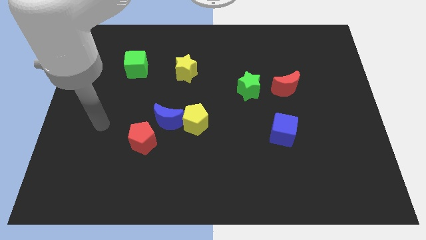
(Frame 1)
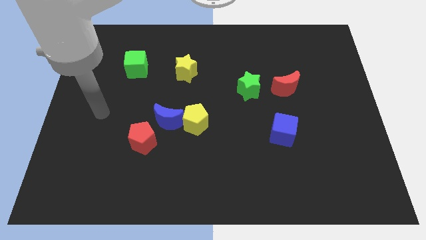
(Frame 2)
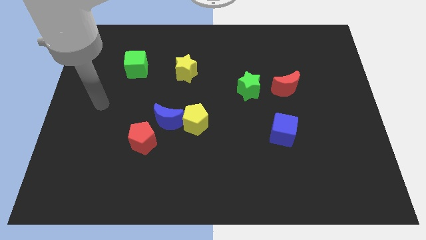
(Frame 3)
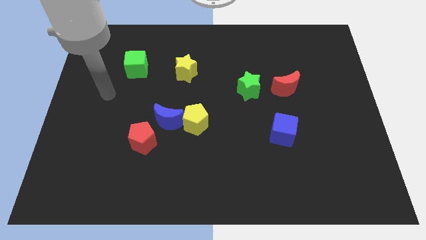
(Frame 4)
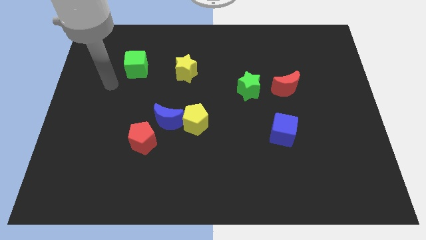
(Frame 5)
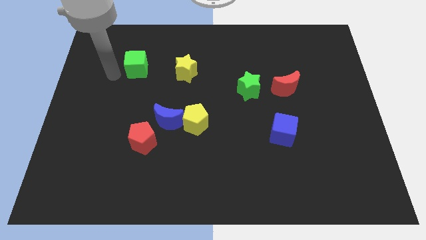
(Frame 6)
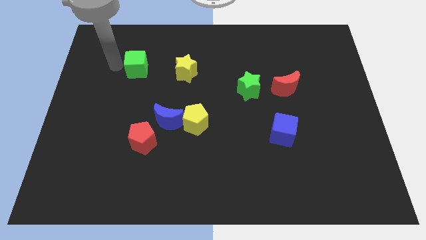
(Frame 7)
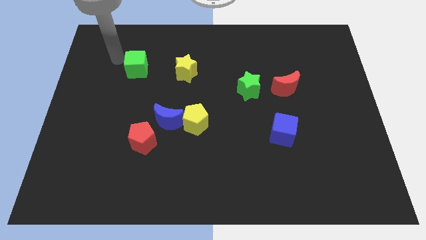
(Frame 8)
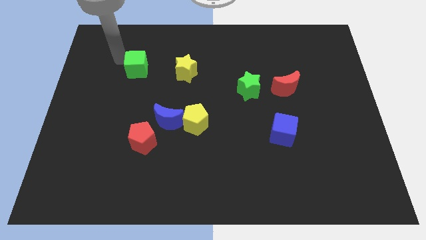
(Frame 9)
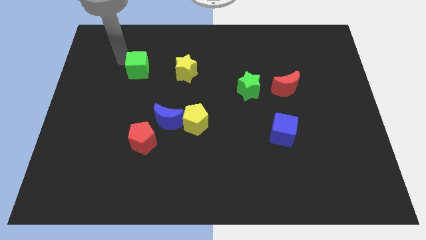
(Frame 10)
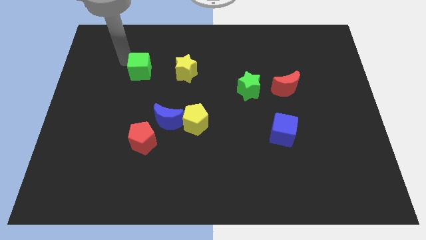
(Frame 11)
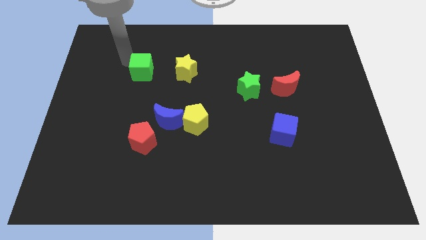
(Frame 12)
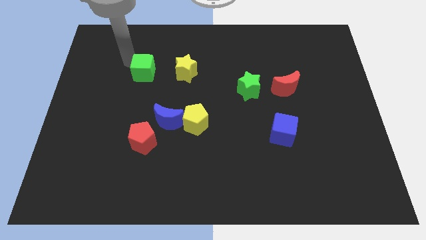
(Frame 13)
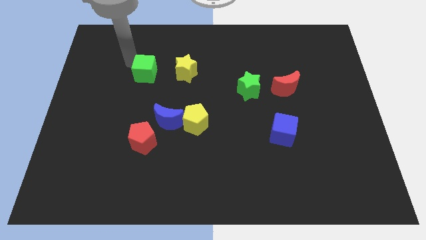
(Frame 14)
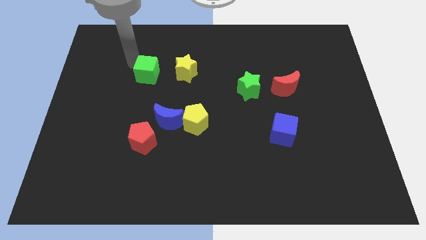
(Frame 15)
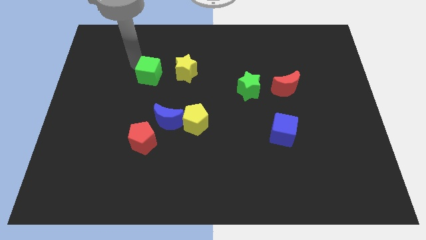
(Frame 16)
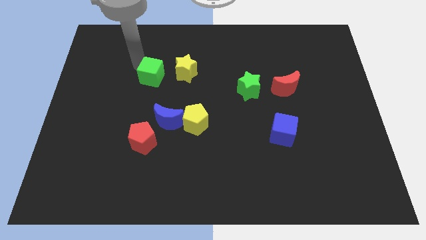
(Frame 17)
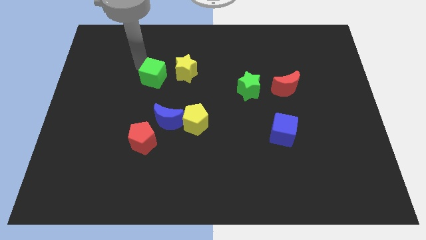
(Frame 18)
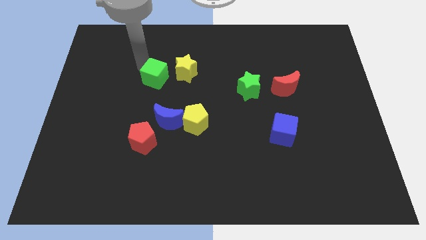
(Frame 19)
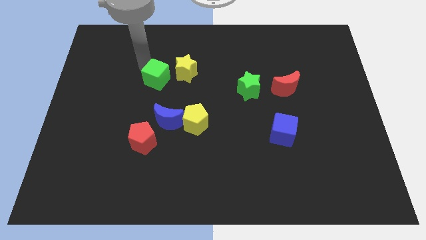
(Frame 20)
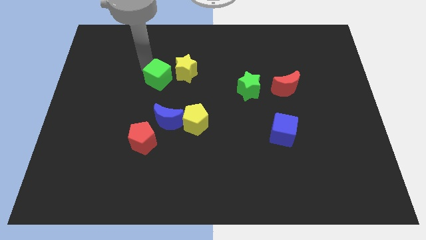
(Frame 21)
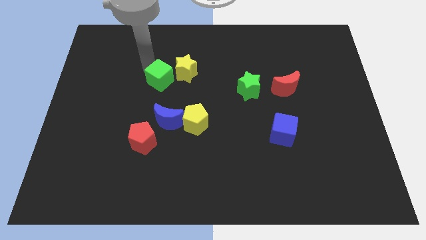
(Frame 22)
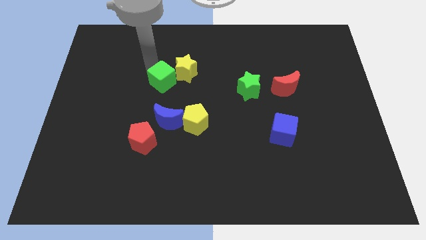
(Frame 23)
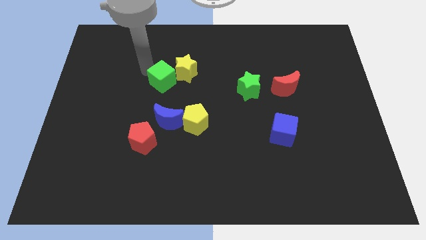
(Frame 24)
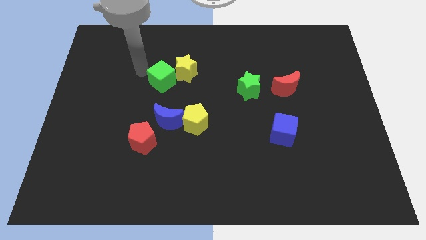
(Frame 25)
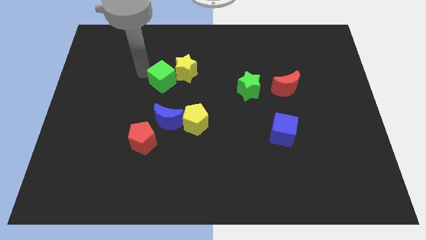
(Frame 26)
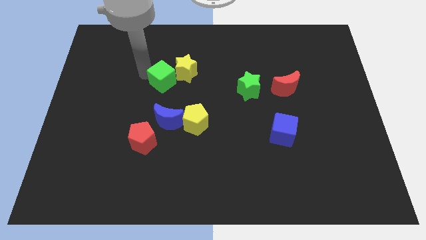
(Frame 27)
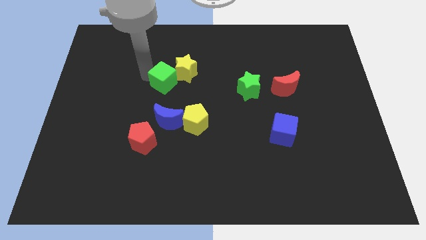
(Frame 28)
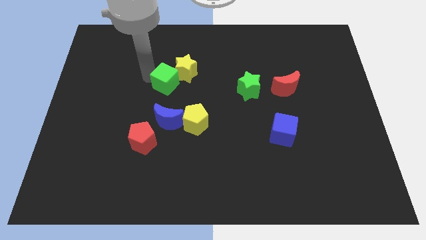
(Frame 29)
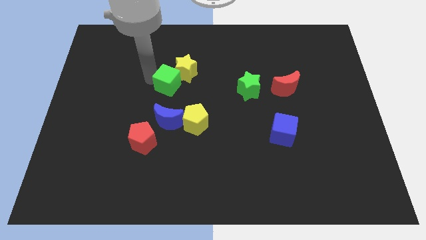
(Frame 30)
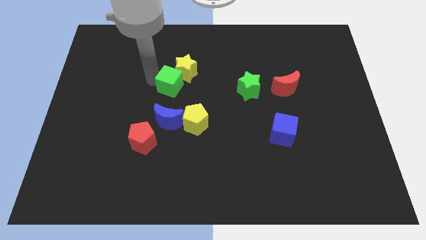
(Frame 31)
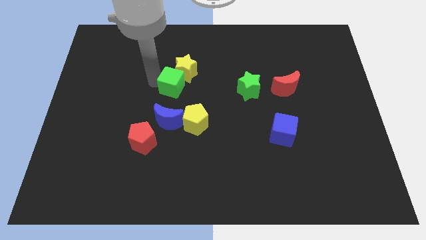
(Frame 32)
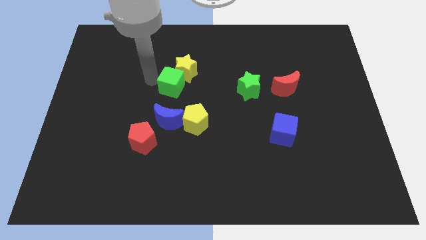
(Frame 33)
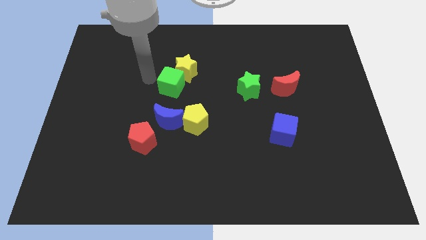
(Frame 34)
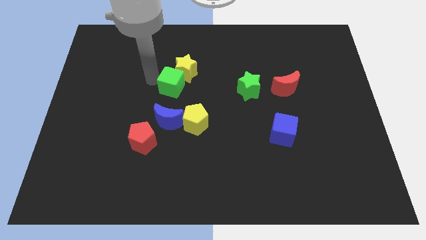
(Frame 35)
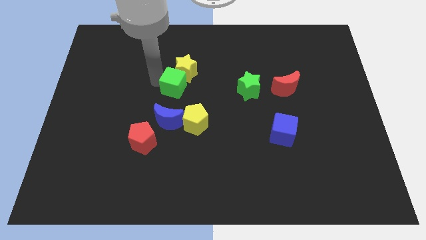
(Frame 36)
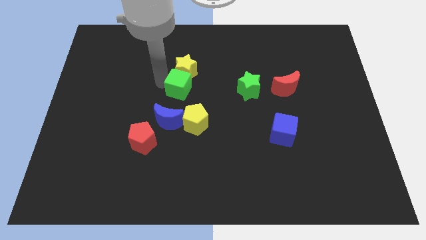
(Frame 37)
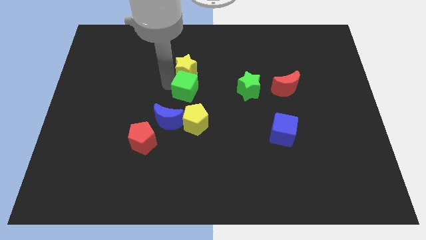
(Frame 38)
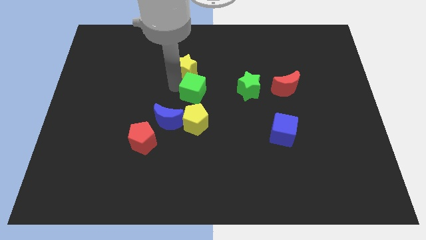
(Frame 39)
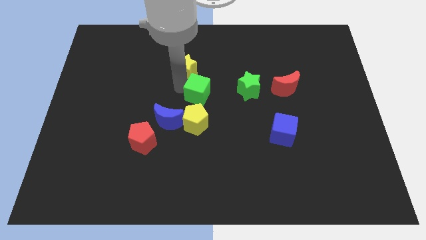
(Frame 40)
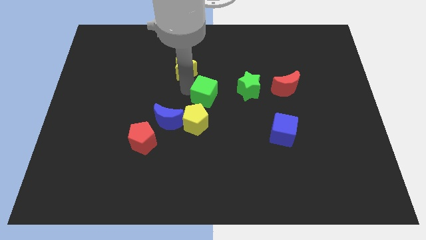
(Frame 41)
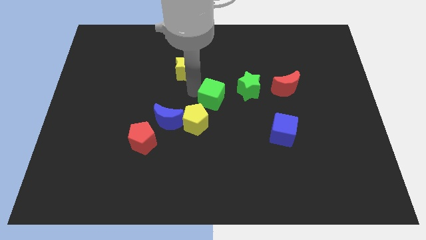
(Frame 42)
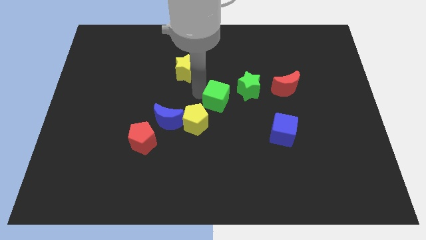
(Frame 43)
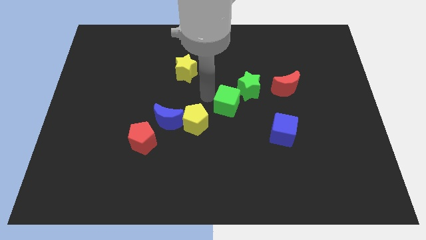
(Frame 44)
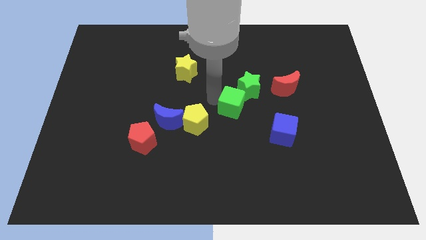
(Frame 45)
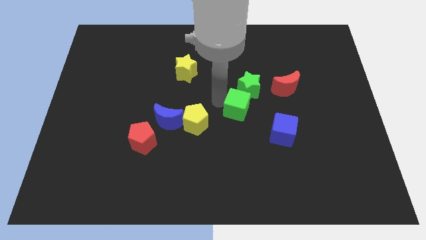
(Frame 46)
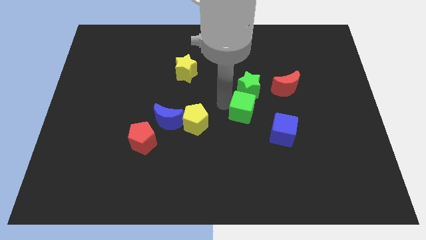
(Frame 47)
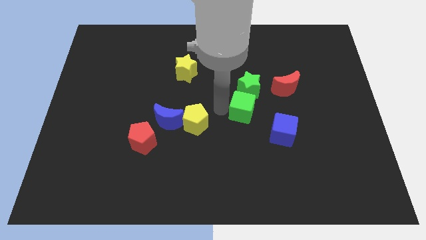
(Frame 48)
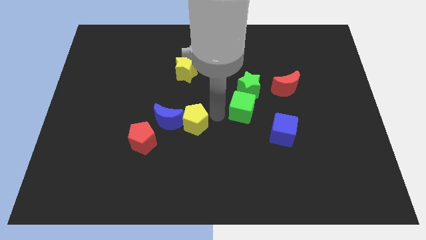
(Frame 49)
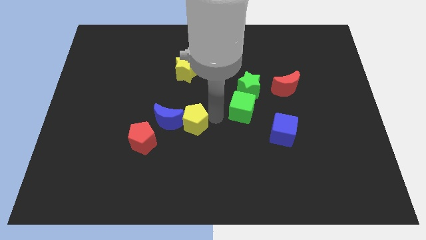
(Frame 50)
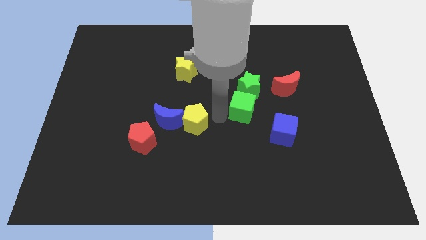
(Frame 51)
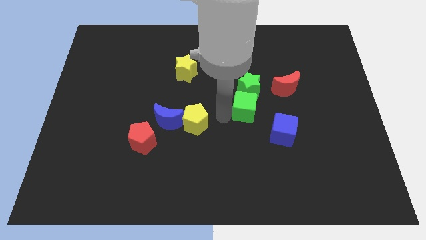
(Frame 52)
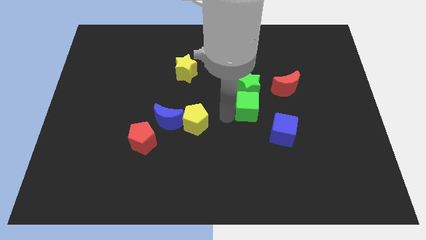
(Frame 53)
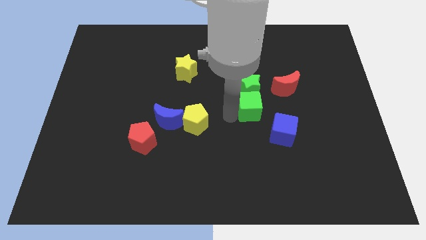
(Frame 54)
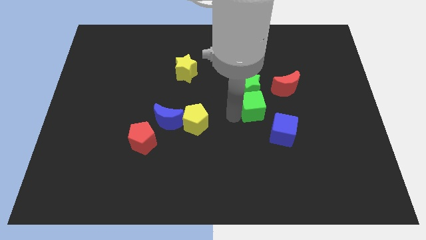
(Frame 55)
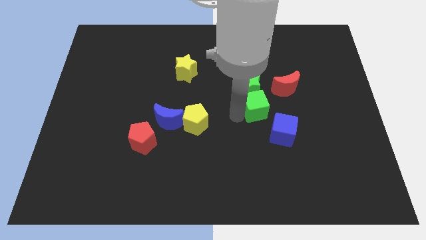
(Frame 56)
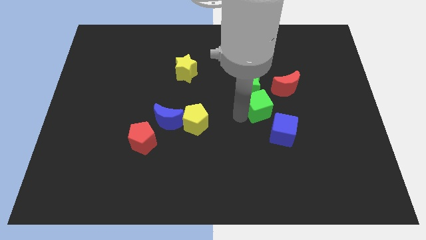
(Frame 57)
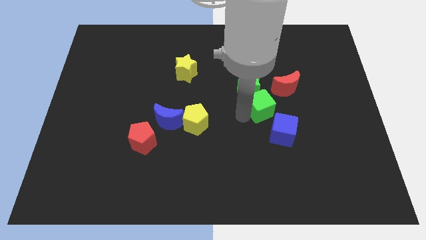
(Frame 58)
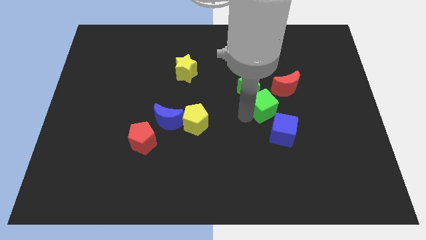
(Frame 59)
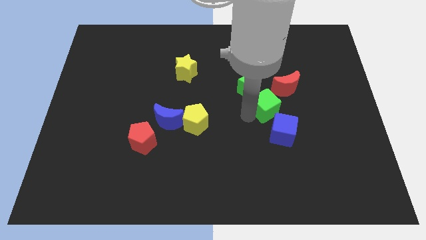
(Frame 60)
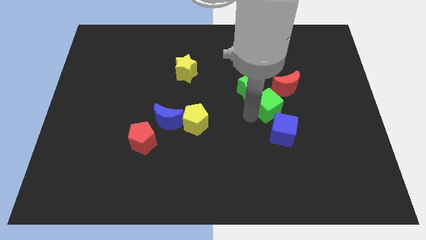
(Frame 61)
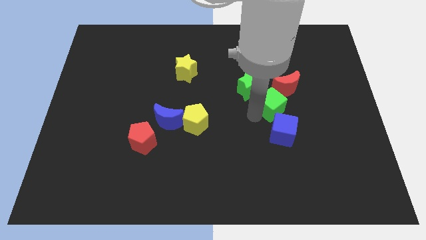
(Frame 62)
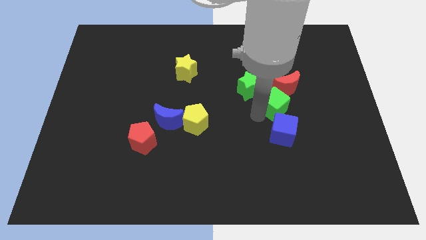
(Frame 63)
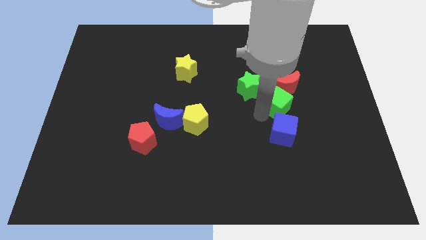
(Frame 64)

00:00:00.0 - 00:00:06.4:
slide the green cube close to the red moon

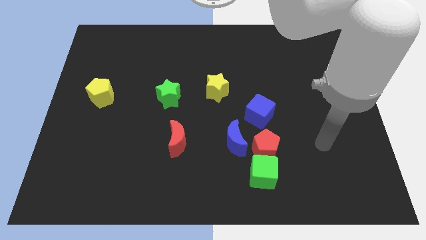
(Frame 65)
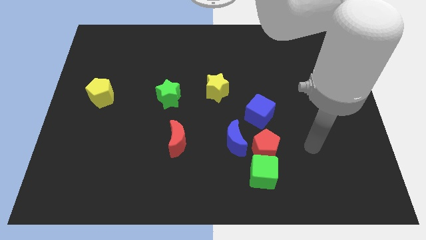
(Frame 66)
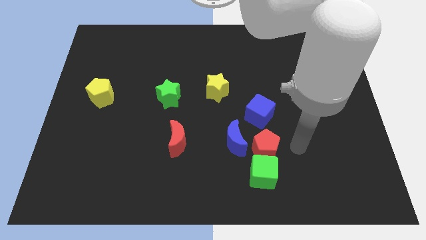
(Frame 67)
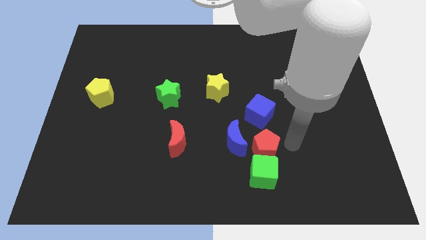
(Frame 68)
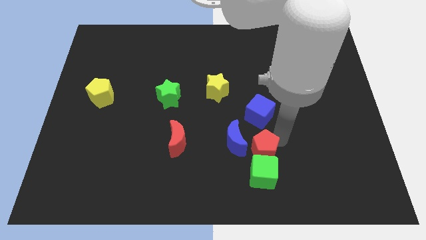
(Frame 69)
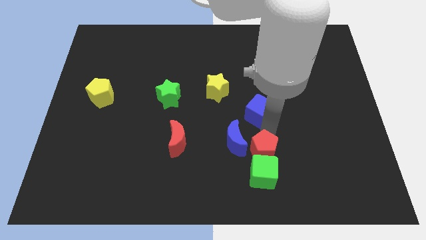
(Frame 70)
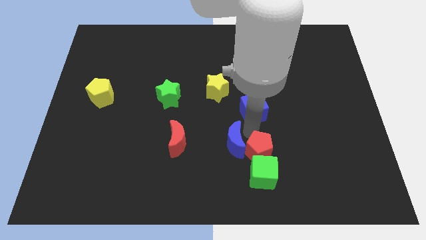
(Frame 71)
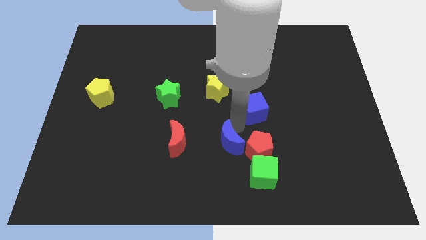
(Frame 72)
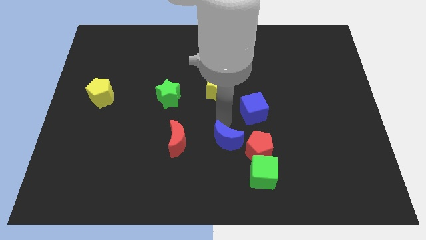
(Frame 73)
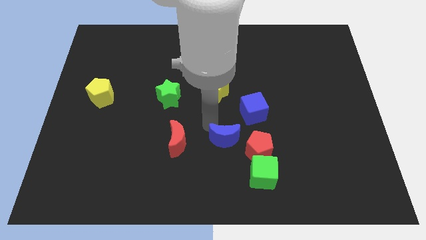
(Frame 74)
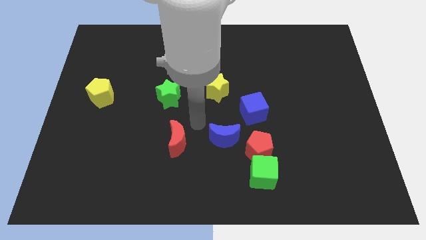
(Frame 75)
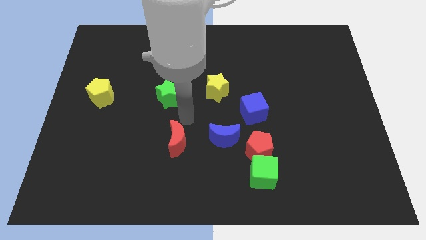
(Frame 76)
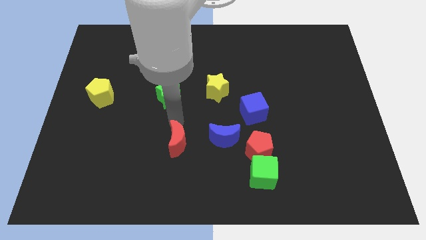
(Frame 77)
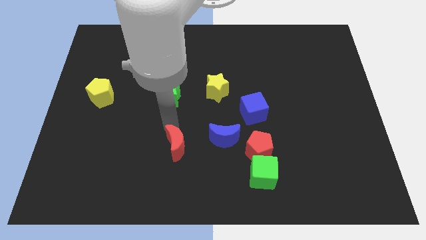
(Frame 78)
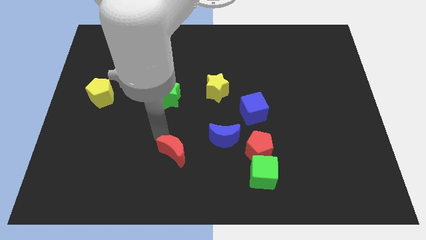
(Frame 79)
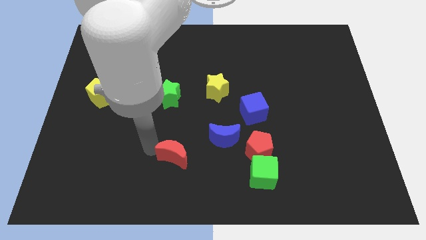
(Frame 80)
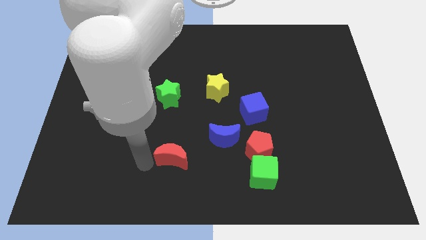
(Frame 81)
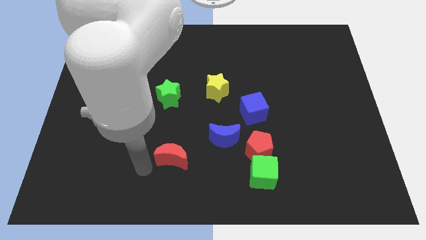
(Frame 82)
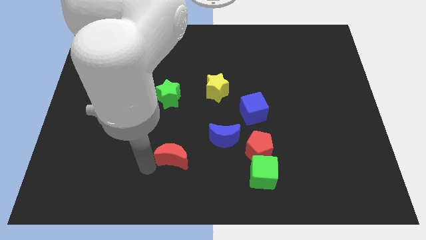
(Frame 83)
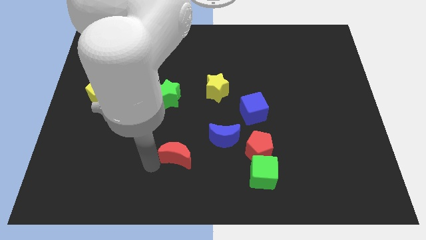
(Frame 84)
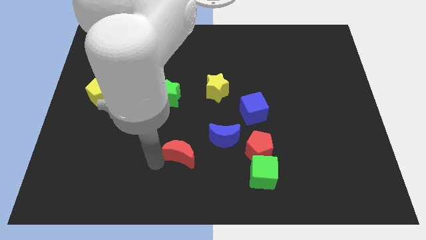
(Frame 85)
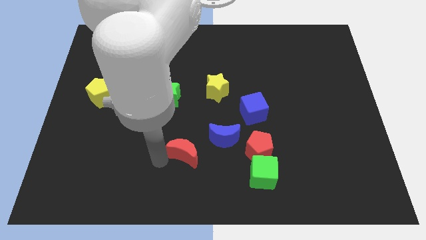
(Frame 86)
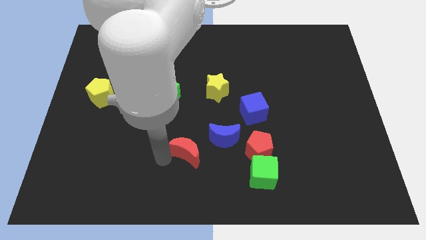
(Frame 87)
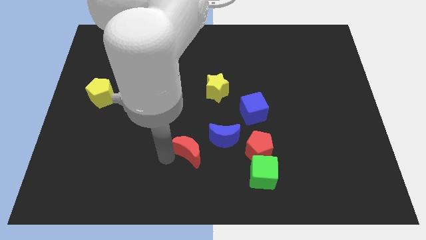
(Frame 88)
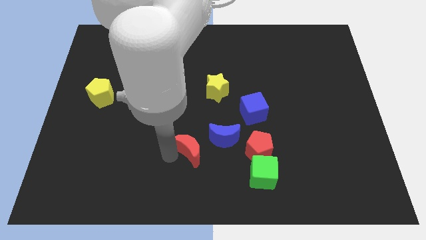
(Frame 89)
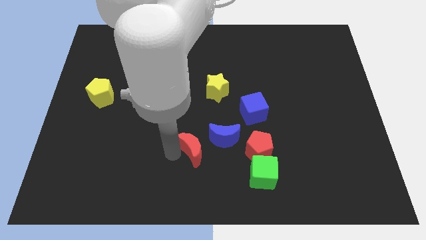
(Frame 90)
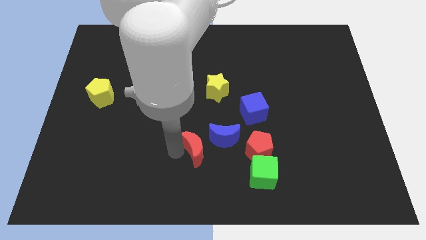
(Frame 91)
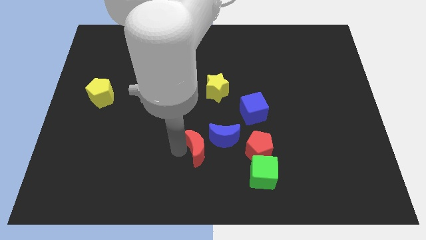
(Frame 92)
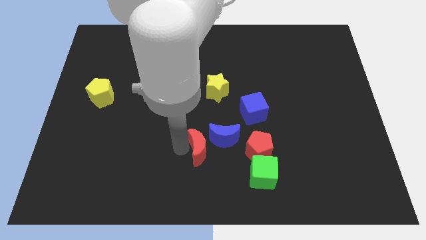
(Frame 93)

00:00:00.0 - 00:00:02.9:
move the red moon to the blue moon
